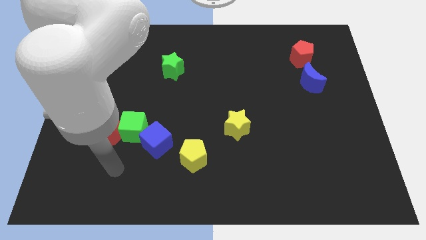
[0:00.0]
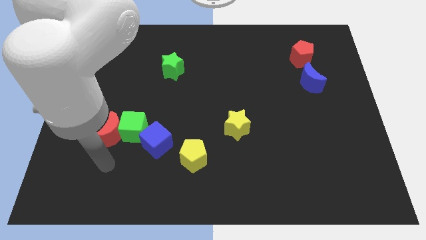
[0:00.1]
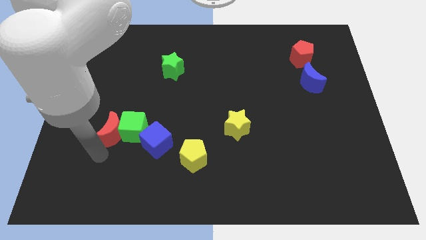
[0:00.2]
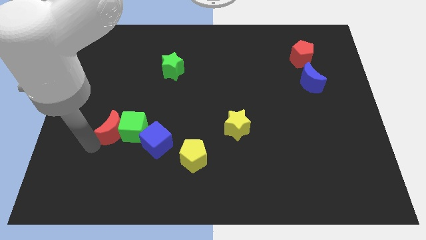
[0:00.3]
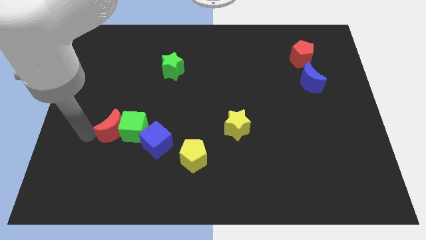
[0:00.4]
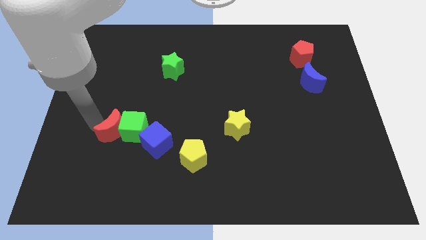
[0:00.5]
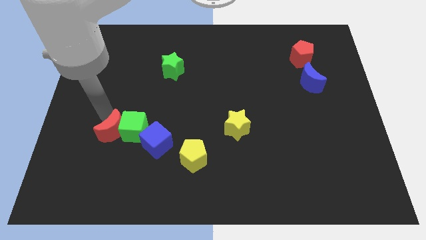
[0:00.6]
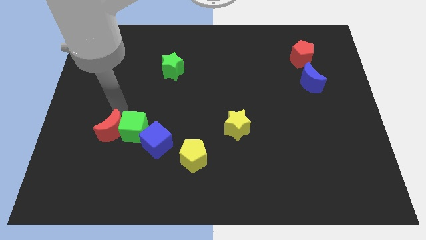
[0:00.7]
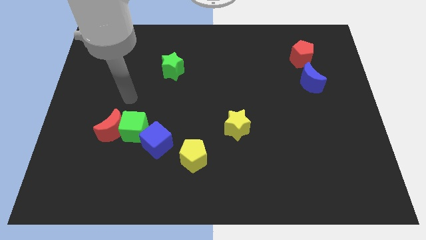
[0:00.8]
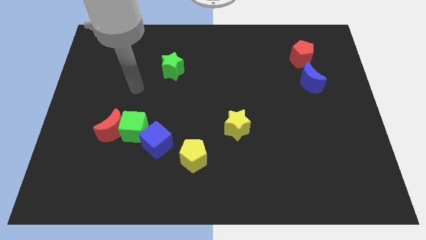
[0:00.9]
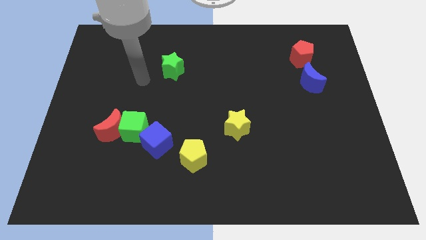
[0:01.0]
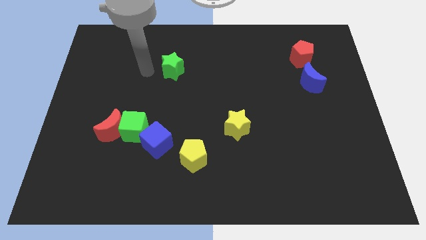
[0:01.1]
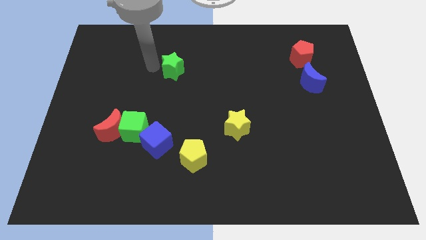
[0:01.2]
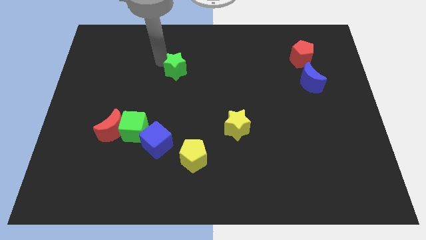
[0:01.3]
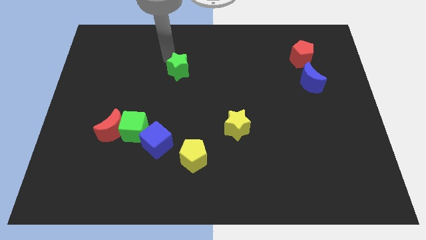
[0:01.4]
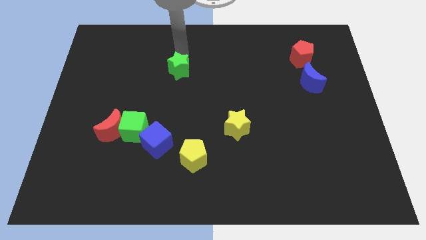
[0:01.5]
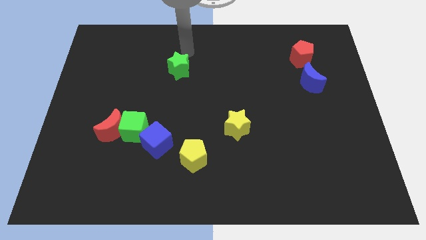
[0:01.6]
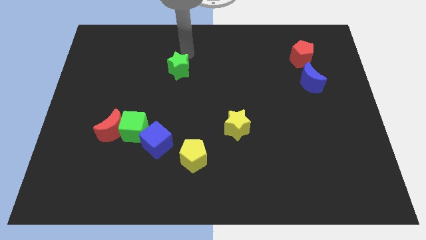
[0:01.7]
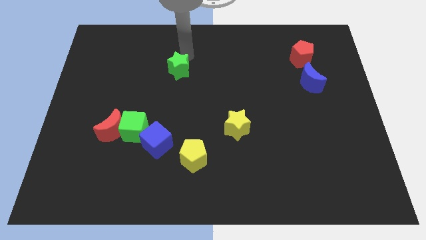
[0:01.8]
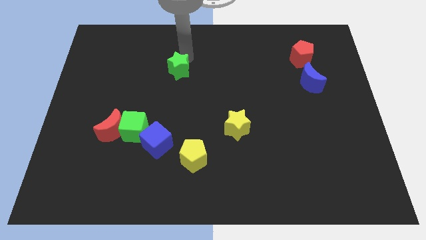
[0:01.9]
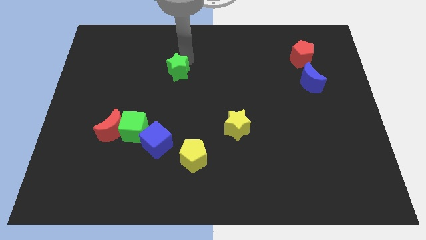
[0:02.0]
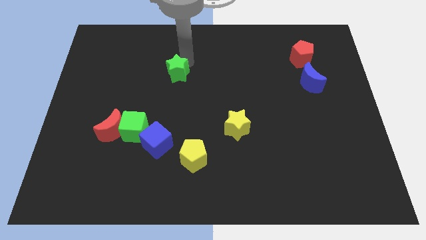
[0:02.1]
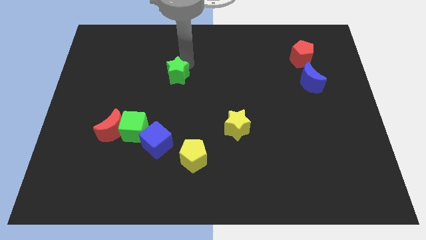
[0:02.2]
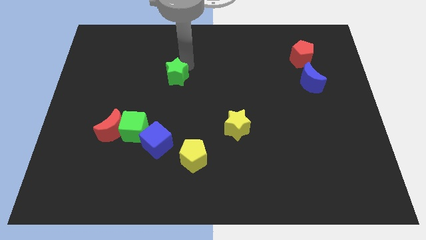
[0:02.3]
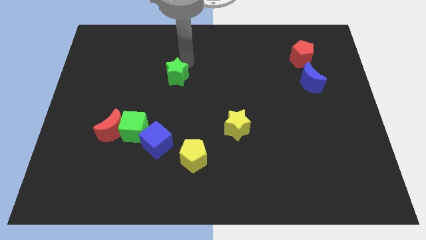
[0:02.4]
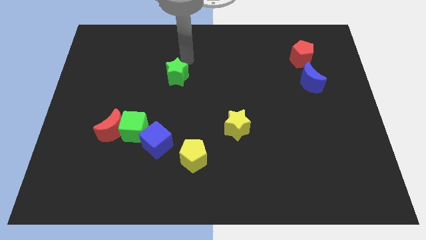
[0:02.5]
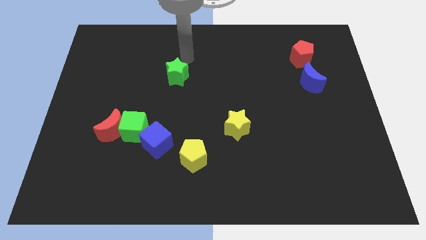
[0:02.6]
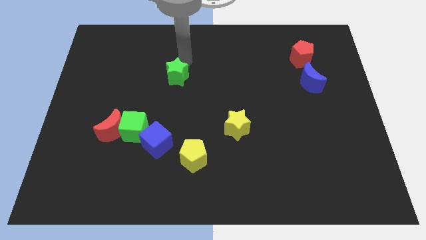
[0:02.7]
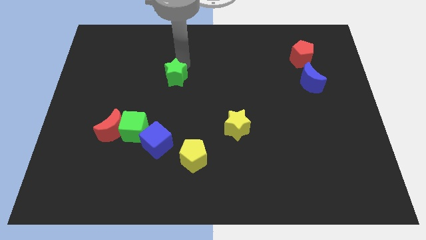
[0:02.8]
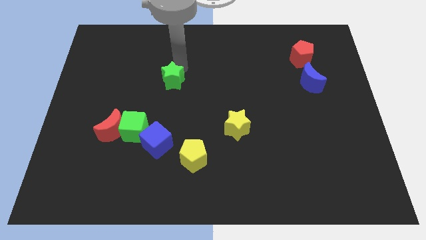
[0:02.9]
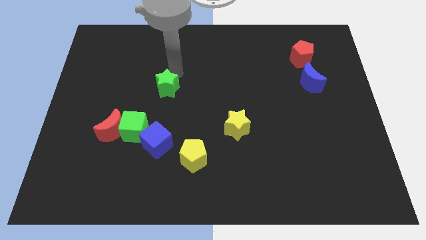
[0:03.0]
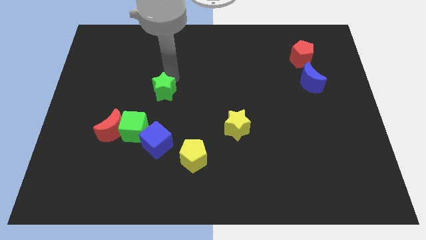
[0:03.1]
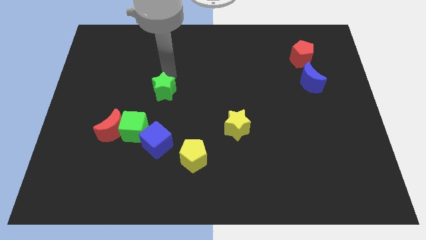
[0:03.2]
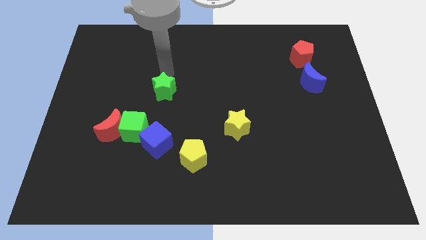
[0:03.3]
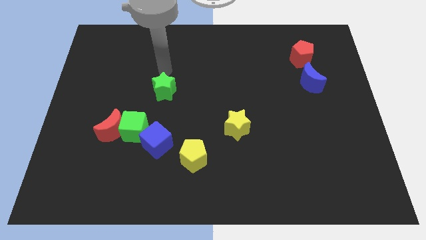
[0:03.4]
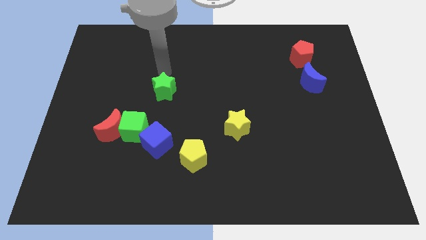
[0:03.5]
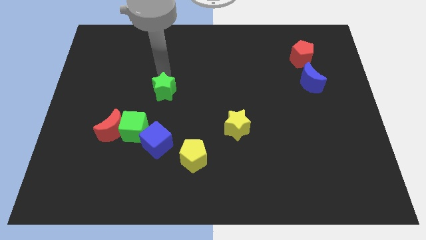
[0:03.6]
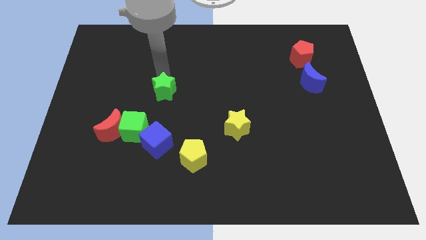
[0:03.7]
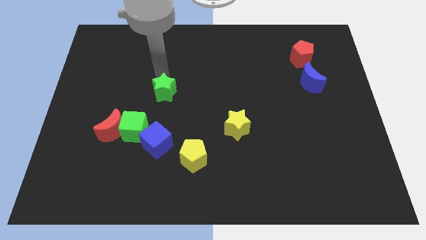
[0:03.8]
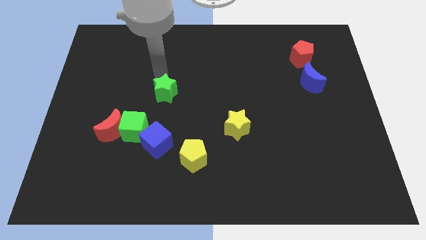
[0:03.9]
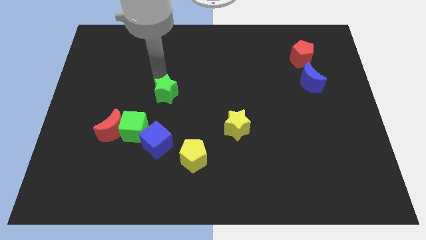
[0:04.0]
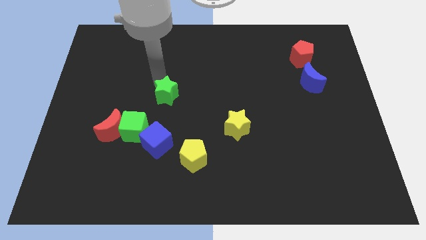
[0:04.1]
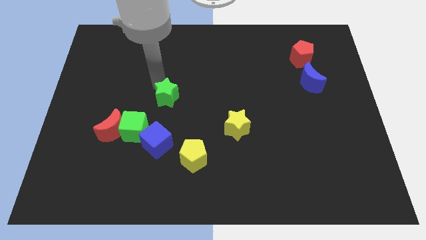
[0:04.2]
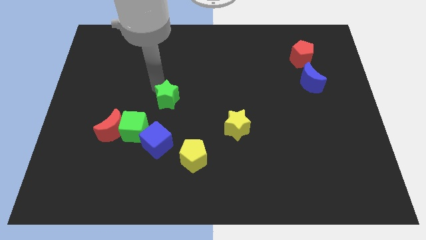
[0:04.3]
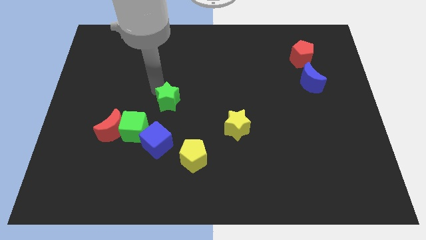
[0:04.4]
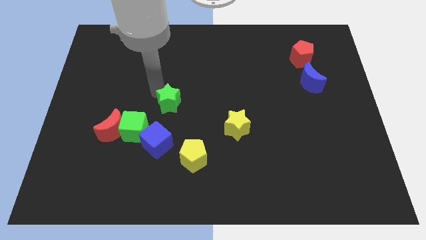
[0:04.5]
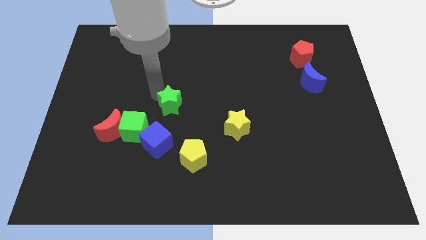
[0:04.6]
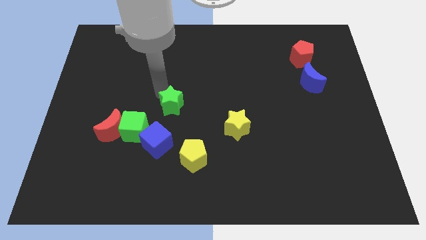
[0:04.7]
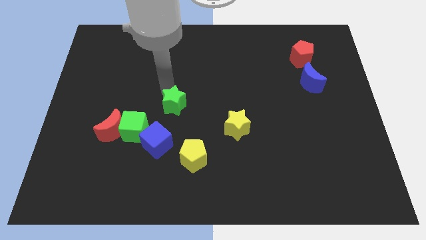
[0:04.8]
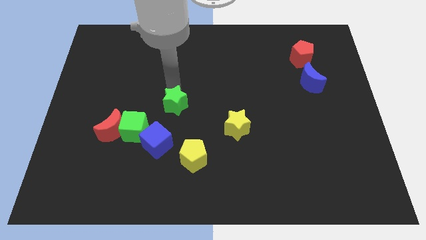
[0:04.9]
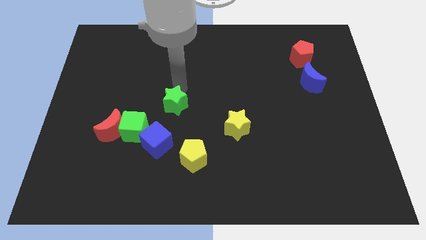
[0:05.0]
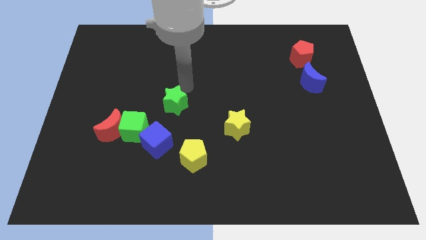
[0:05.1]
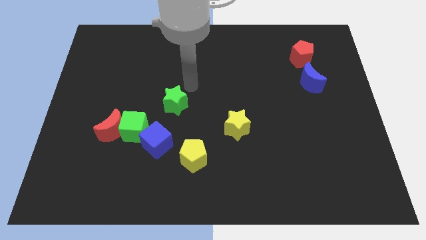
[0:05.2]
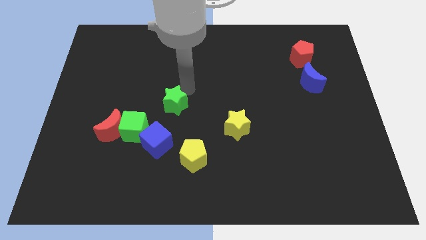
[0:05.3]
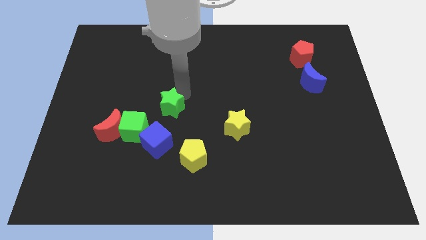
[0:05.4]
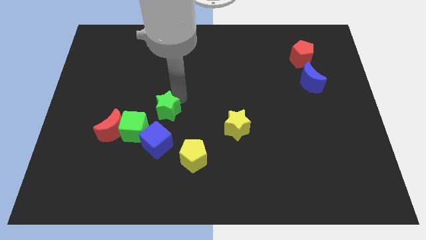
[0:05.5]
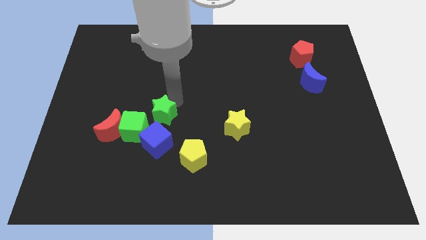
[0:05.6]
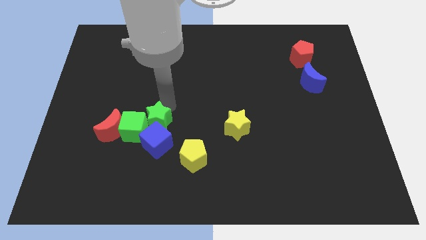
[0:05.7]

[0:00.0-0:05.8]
slide the green star close to the blue cube

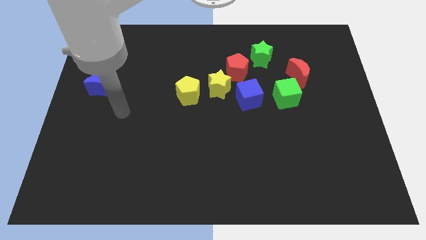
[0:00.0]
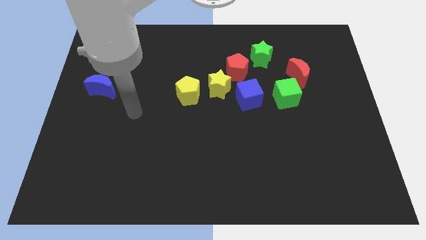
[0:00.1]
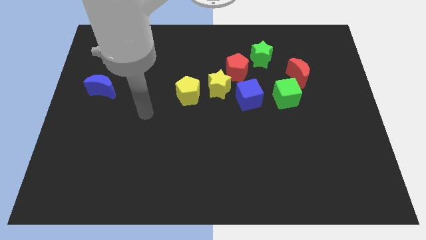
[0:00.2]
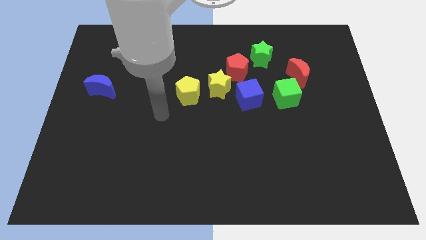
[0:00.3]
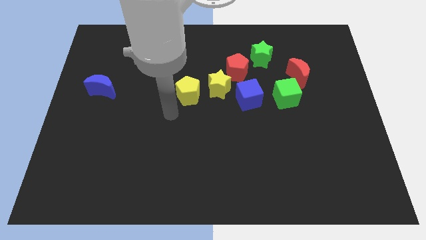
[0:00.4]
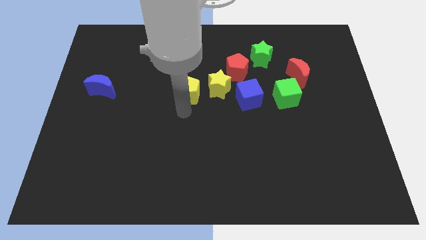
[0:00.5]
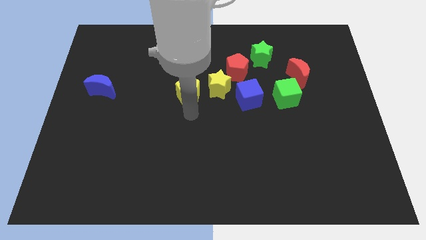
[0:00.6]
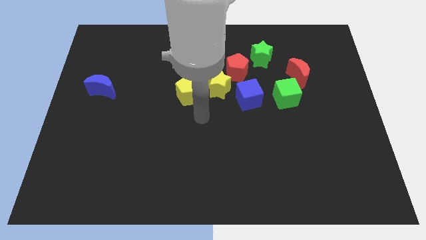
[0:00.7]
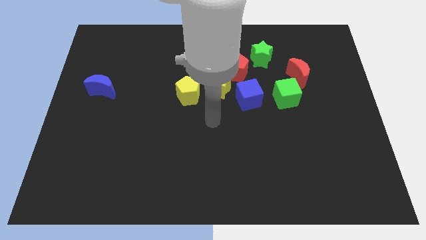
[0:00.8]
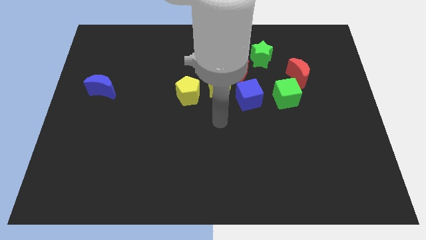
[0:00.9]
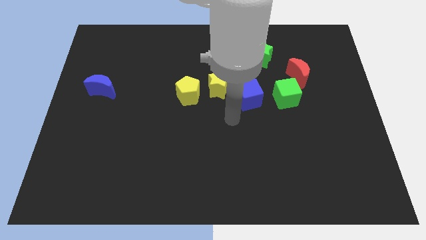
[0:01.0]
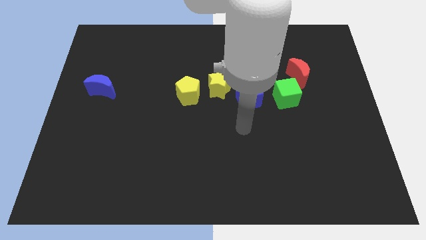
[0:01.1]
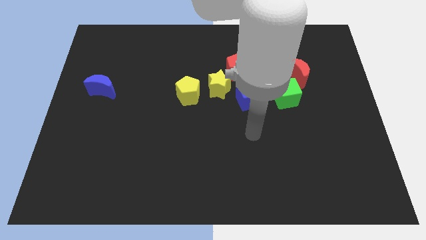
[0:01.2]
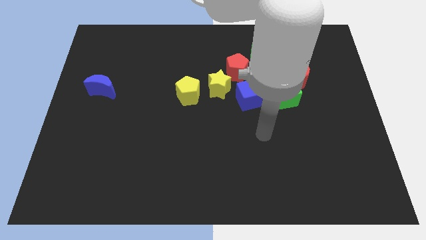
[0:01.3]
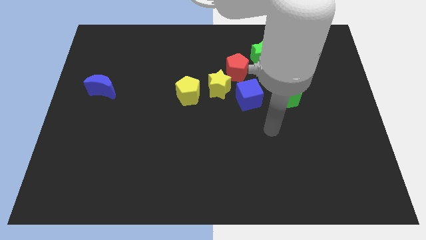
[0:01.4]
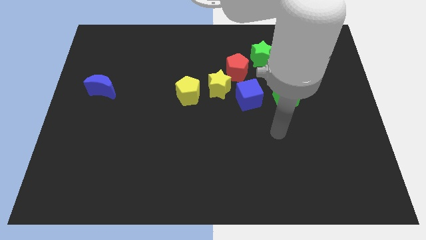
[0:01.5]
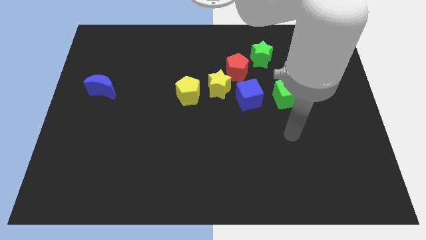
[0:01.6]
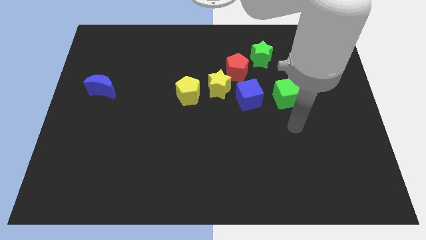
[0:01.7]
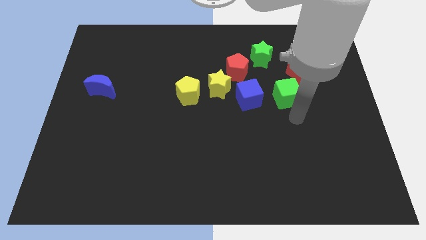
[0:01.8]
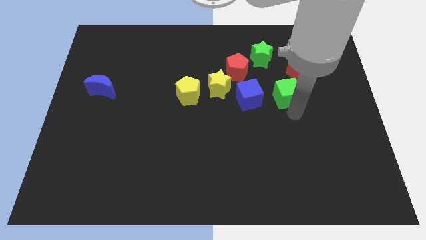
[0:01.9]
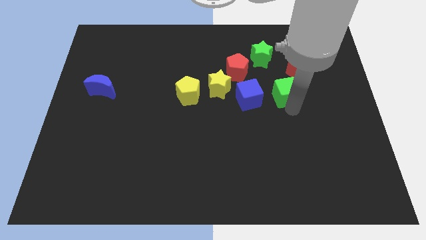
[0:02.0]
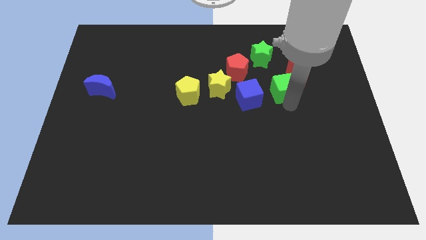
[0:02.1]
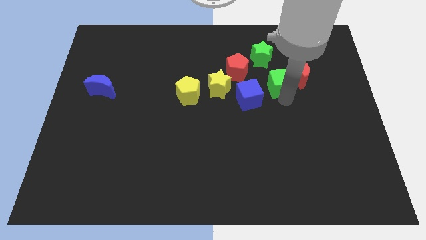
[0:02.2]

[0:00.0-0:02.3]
push the green cube close to the red moon
